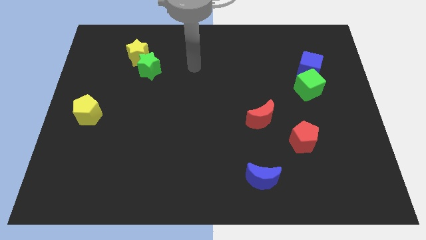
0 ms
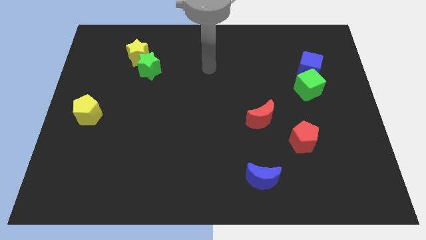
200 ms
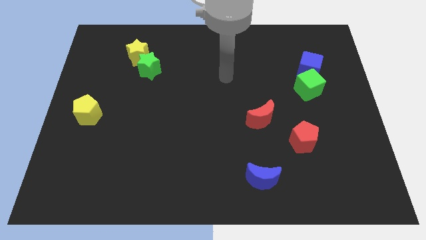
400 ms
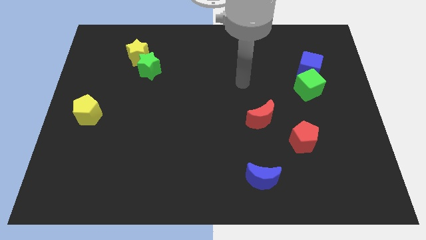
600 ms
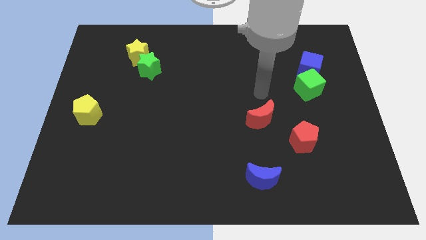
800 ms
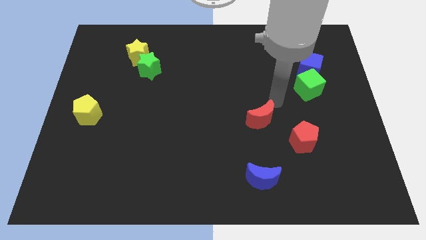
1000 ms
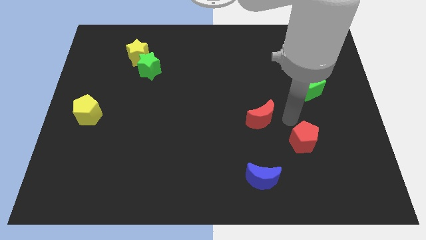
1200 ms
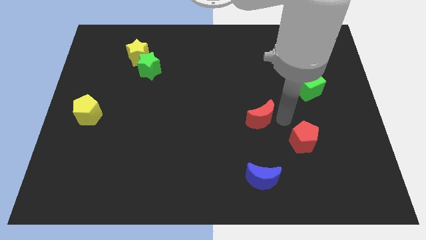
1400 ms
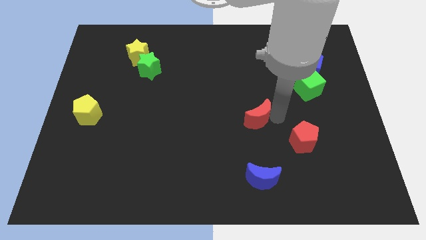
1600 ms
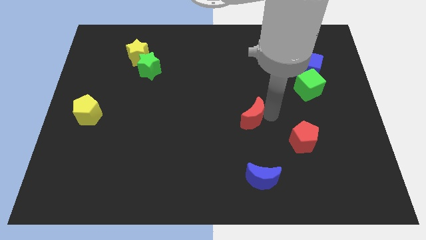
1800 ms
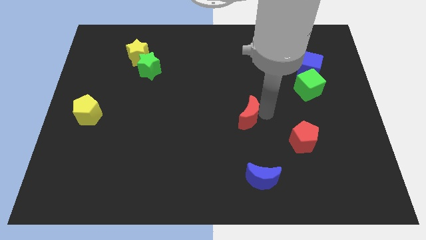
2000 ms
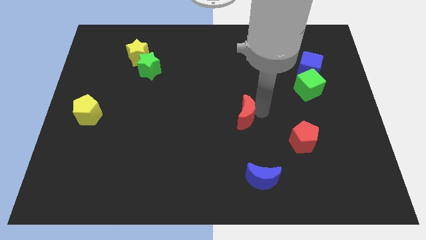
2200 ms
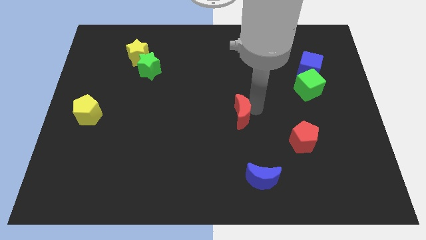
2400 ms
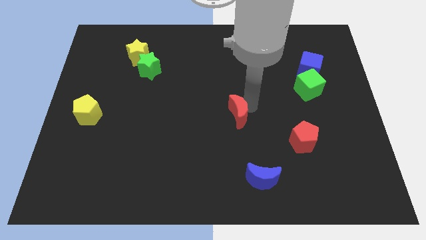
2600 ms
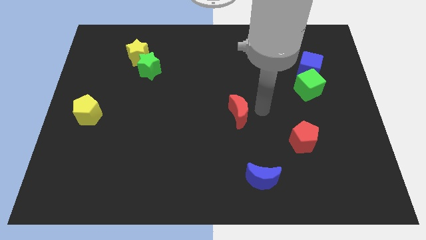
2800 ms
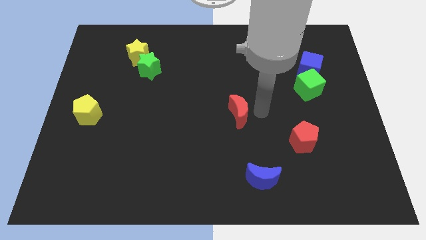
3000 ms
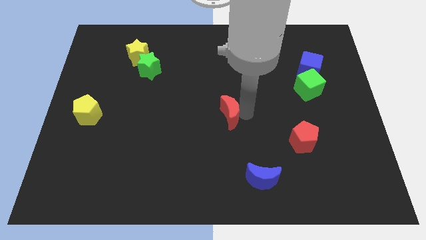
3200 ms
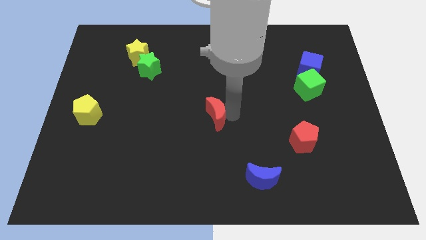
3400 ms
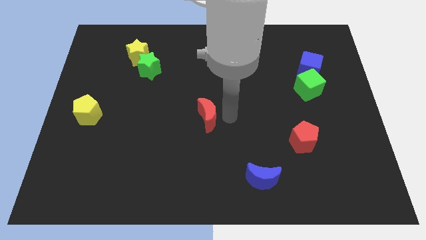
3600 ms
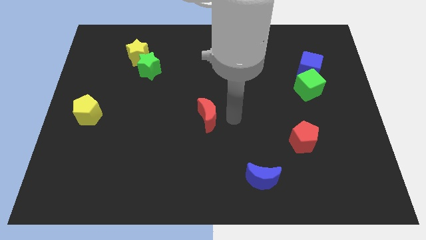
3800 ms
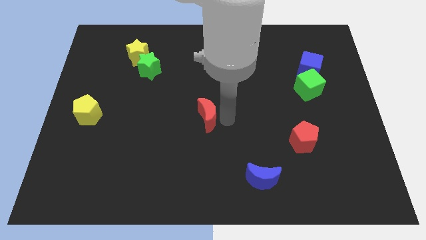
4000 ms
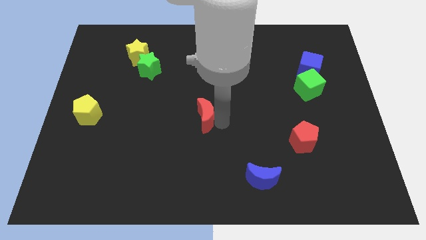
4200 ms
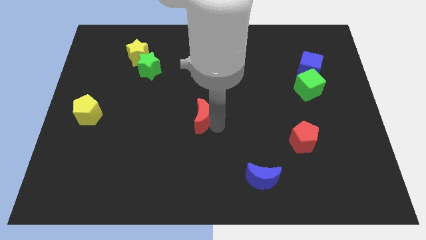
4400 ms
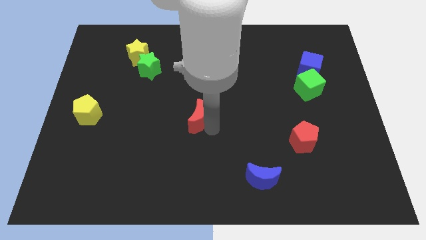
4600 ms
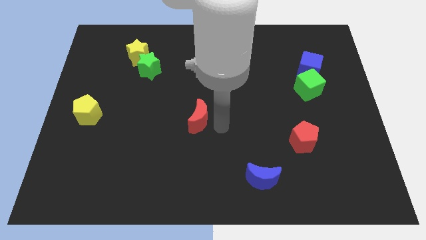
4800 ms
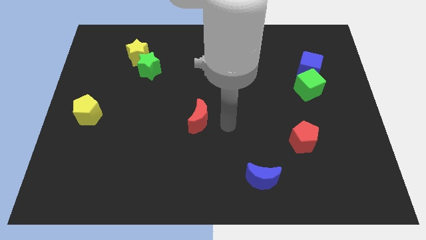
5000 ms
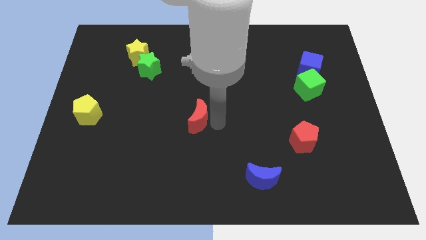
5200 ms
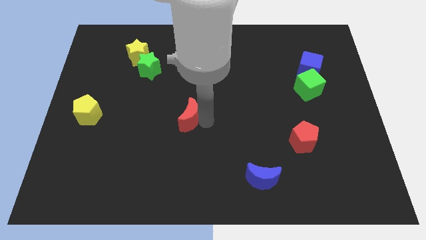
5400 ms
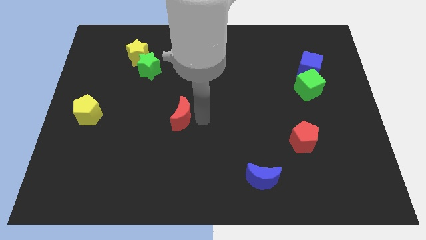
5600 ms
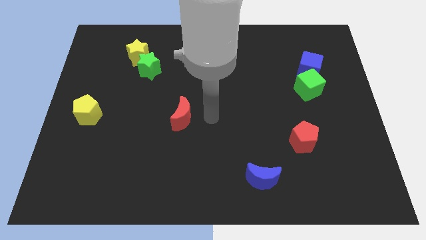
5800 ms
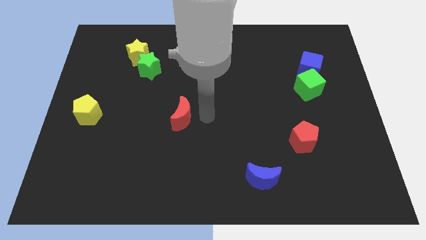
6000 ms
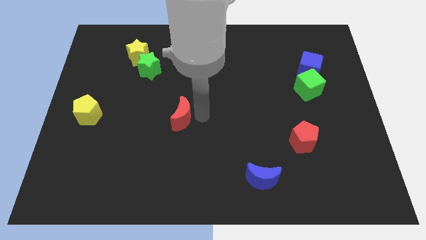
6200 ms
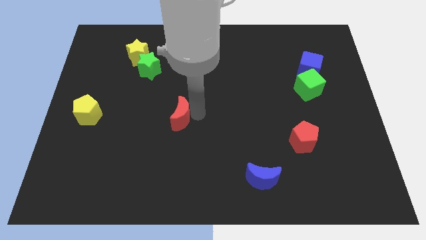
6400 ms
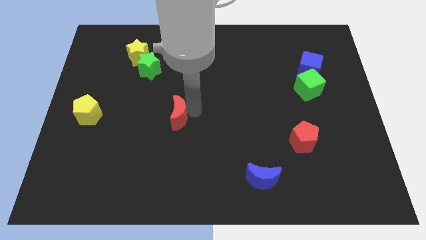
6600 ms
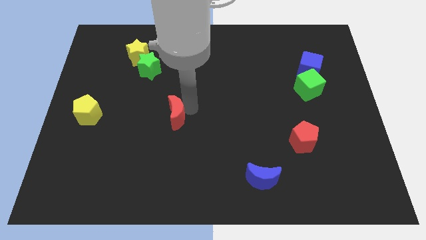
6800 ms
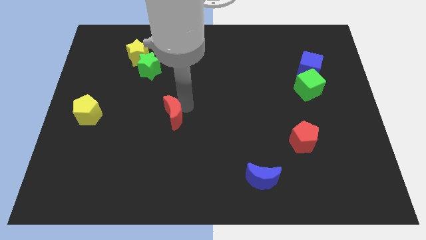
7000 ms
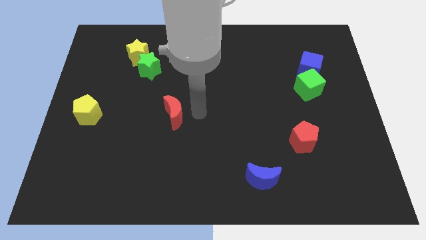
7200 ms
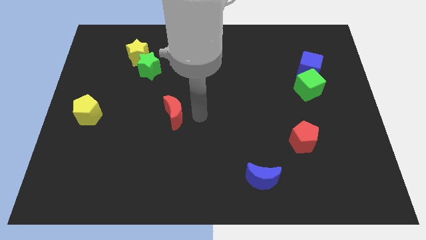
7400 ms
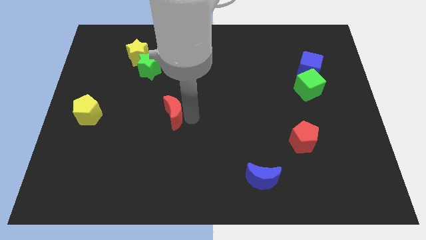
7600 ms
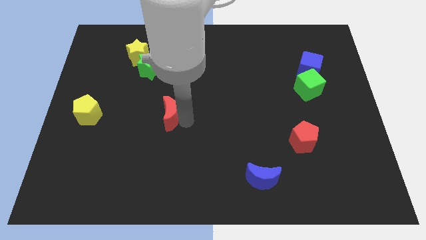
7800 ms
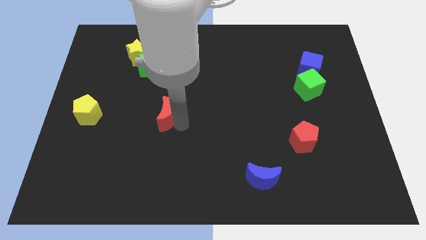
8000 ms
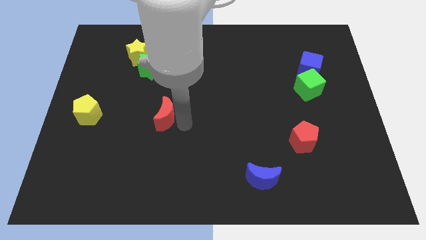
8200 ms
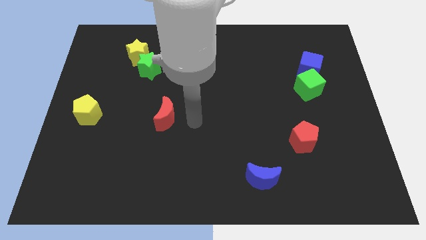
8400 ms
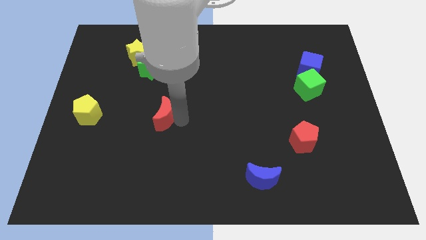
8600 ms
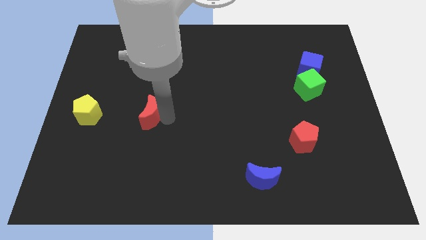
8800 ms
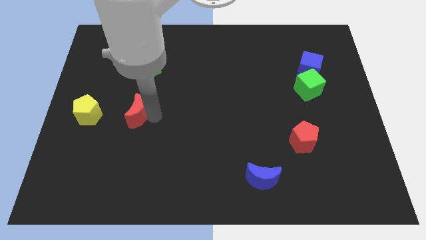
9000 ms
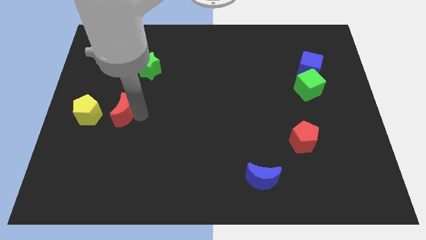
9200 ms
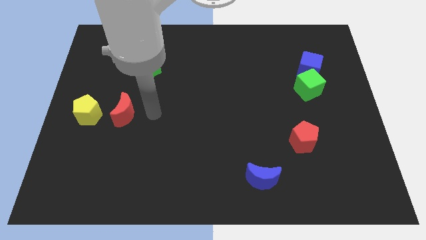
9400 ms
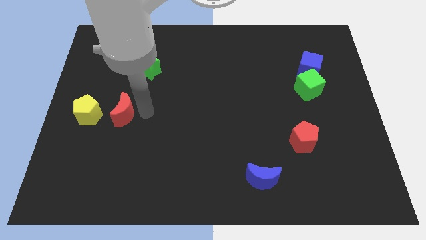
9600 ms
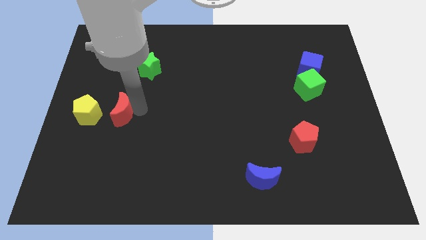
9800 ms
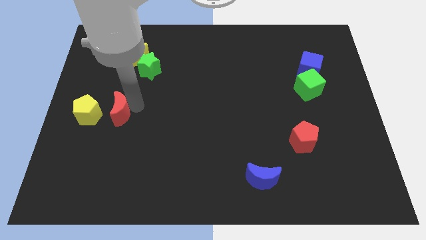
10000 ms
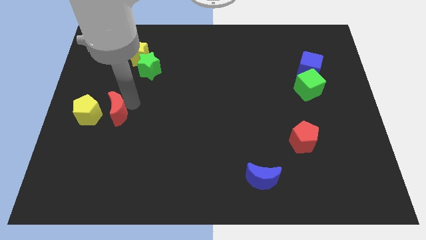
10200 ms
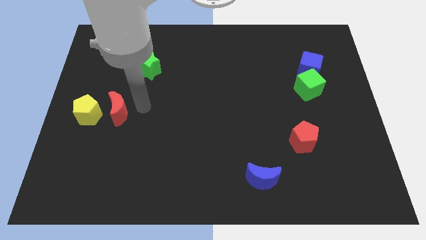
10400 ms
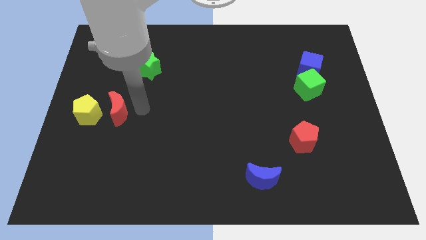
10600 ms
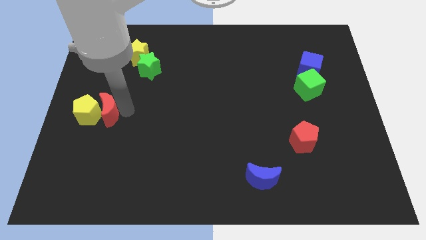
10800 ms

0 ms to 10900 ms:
put the red moon to the yellow pentagon

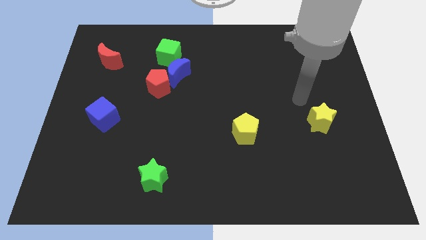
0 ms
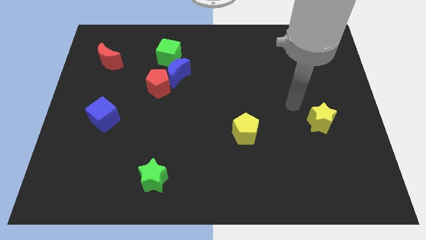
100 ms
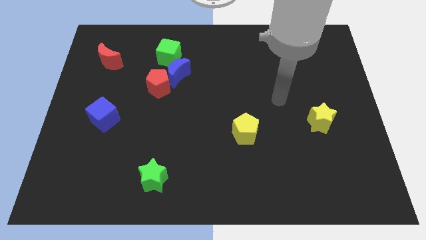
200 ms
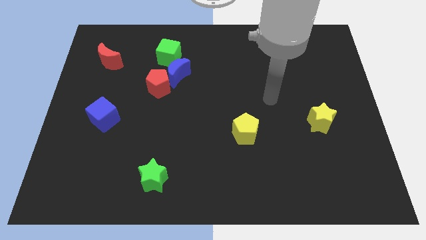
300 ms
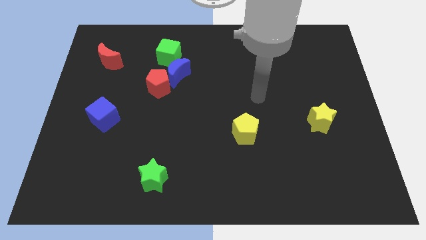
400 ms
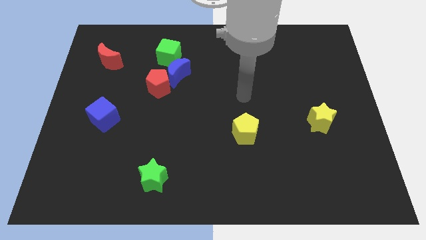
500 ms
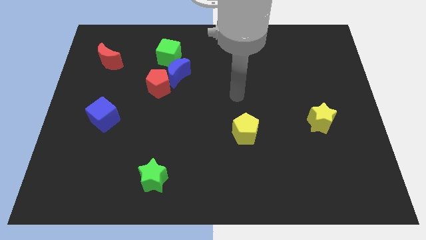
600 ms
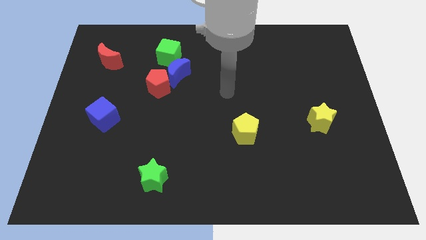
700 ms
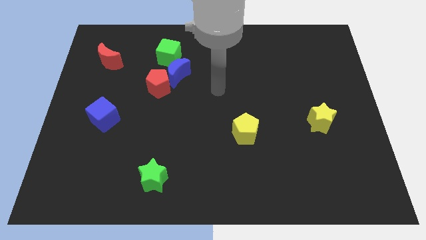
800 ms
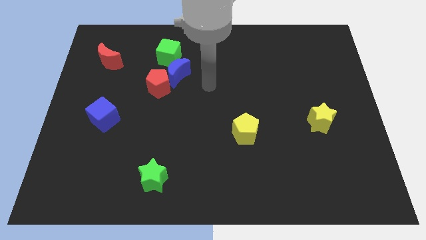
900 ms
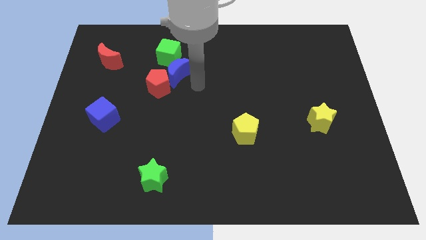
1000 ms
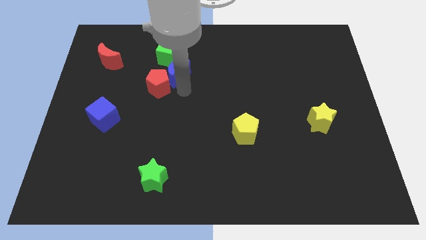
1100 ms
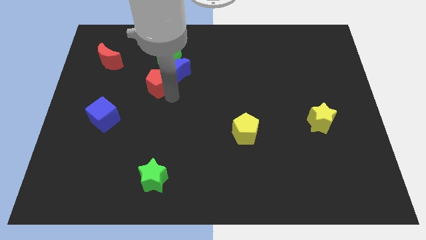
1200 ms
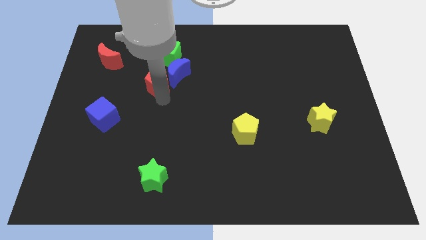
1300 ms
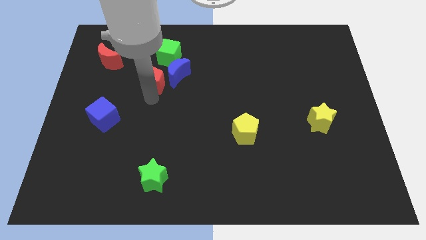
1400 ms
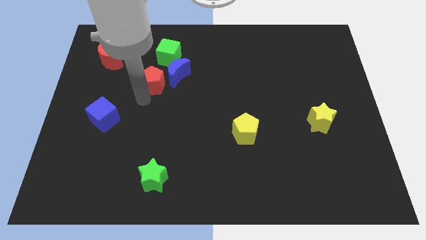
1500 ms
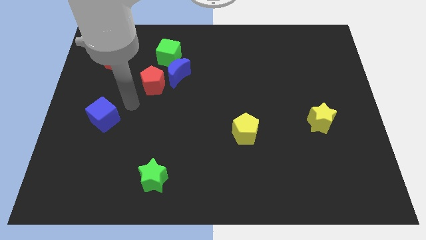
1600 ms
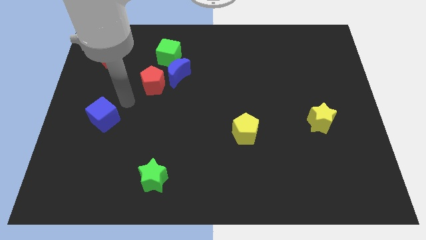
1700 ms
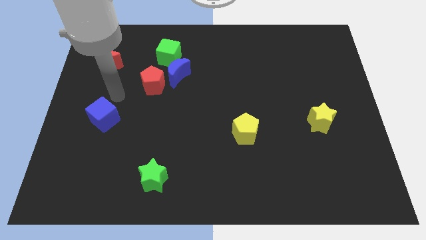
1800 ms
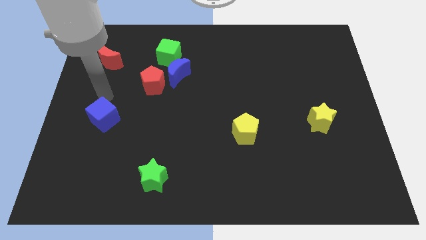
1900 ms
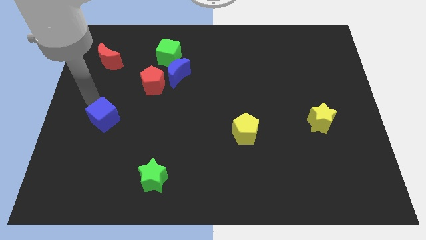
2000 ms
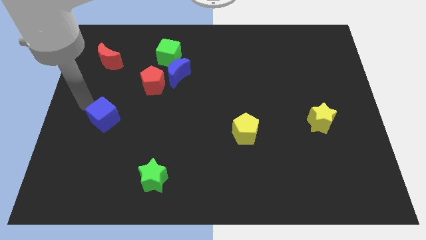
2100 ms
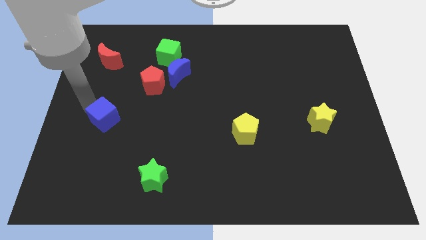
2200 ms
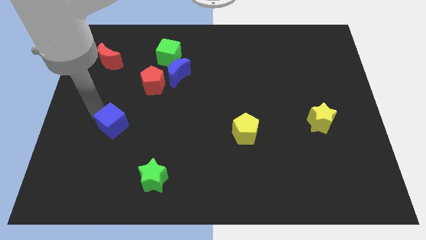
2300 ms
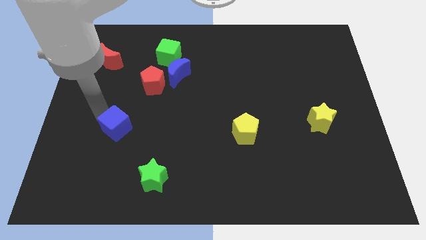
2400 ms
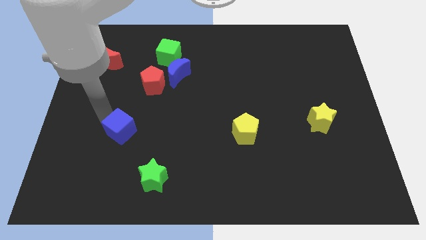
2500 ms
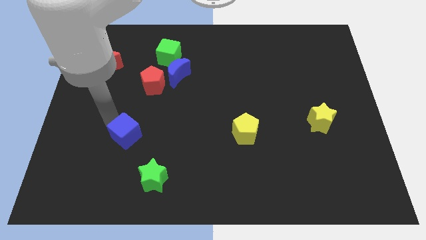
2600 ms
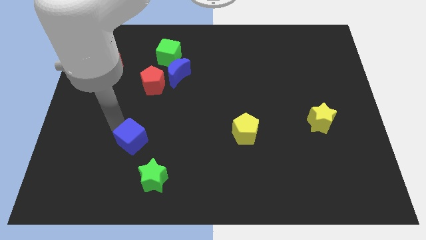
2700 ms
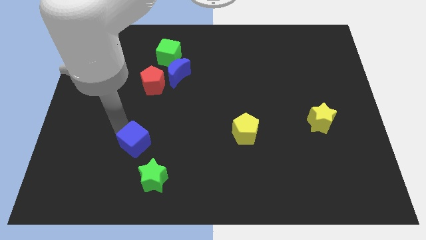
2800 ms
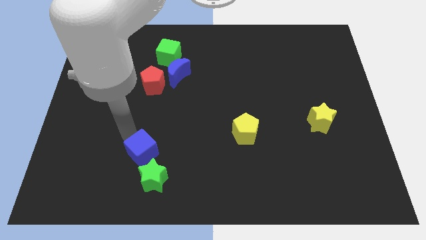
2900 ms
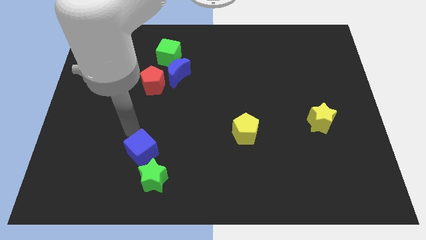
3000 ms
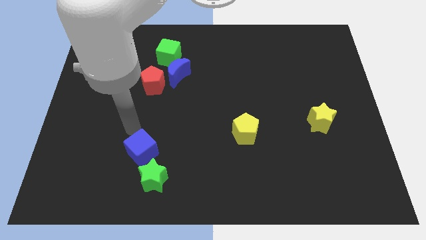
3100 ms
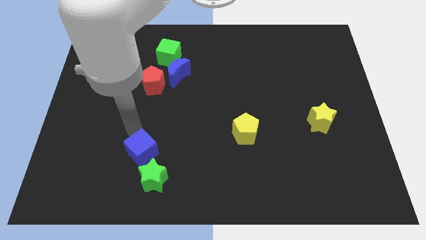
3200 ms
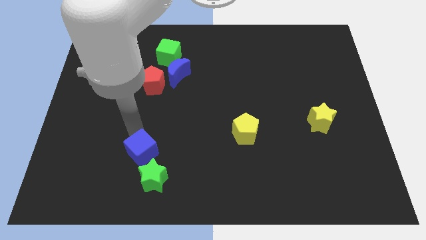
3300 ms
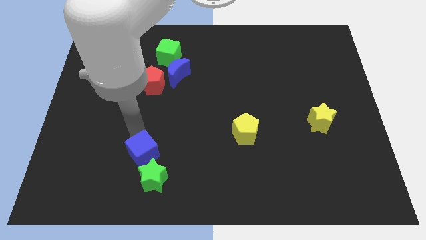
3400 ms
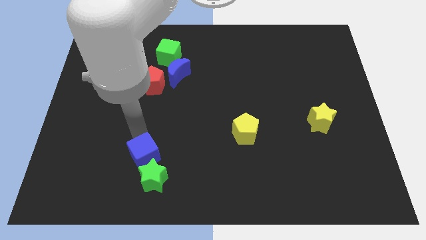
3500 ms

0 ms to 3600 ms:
push the blue cube to the green star
